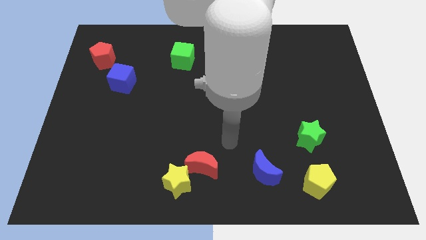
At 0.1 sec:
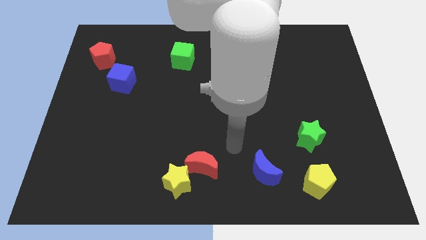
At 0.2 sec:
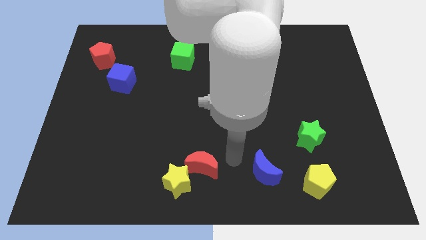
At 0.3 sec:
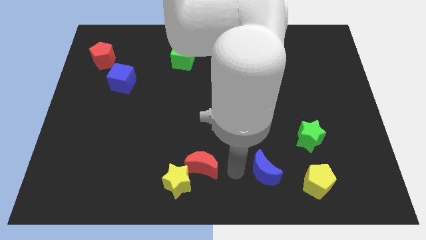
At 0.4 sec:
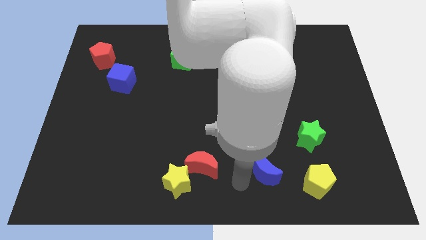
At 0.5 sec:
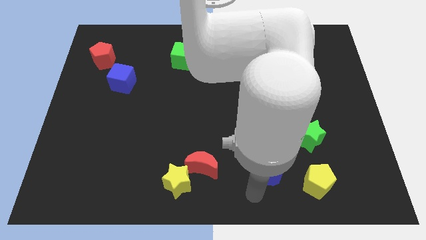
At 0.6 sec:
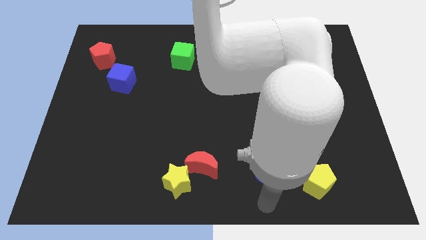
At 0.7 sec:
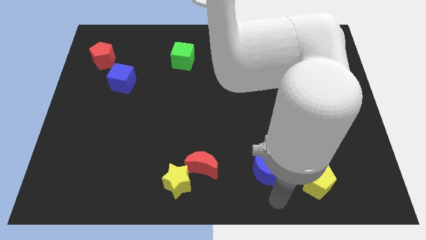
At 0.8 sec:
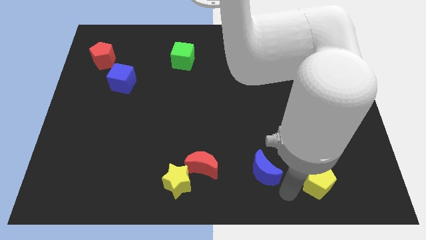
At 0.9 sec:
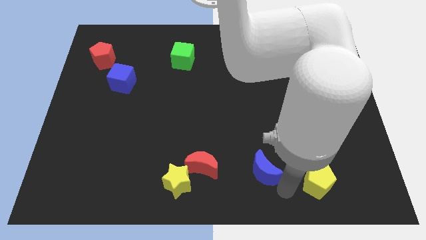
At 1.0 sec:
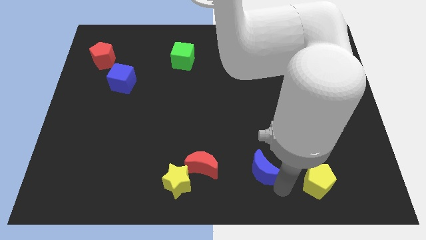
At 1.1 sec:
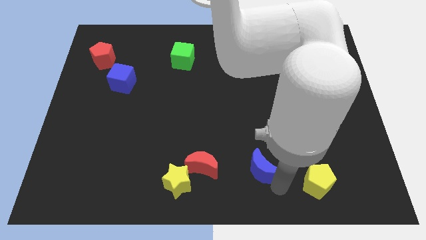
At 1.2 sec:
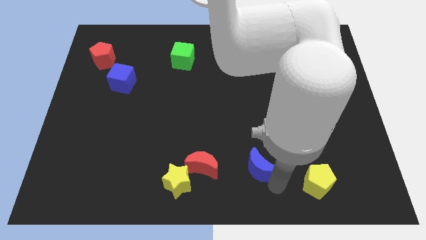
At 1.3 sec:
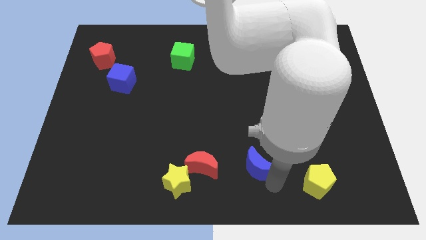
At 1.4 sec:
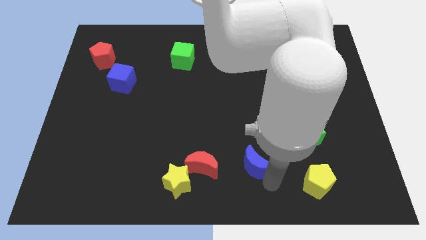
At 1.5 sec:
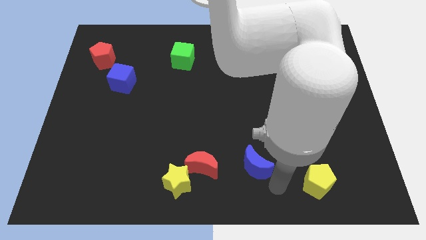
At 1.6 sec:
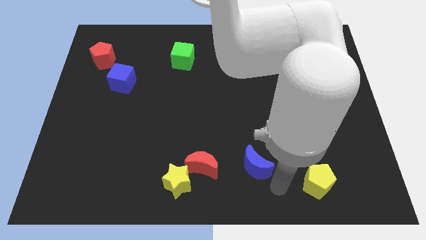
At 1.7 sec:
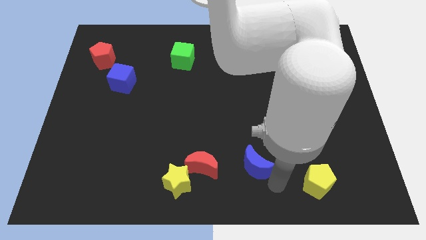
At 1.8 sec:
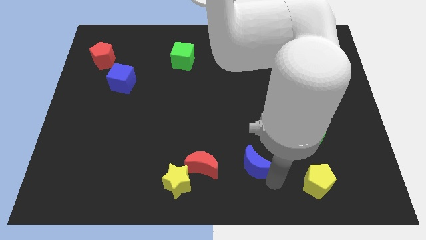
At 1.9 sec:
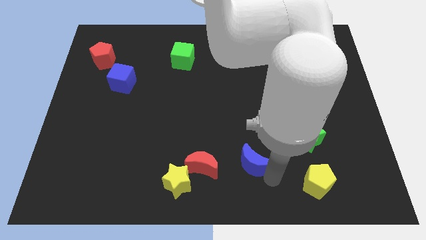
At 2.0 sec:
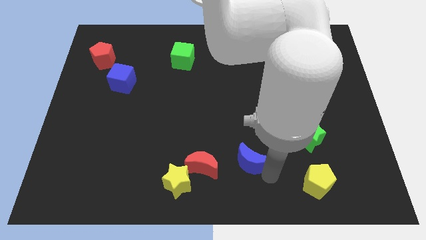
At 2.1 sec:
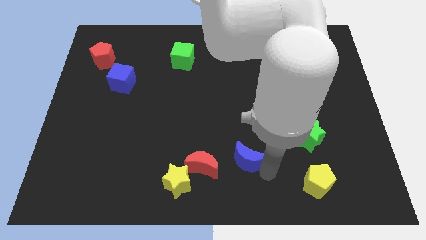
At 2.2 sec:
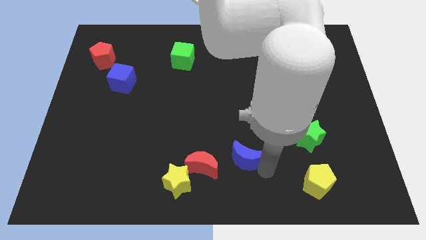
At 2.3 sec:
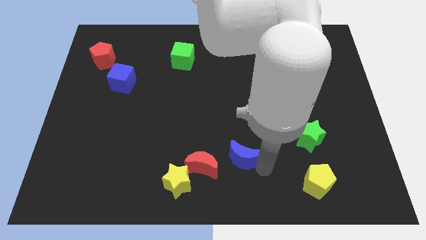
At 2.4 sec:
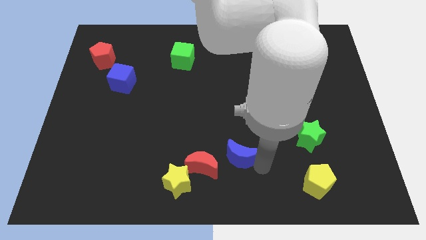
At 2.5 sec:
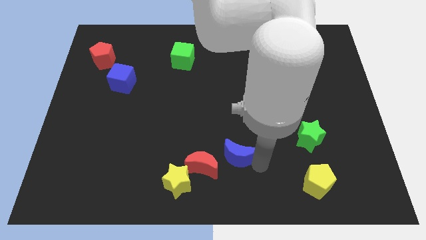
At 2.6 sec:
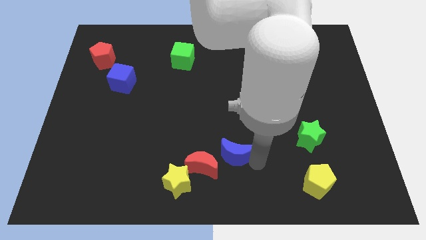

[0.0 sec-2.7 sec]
slide the blue moon a little bit up and then left

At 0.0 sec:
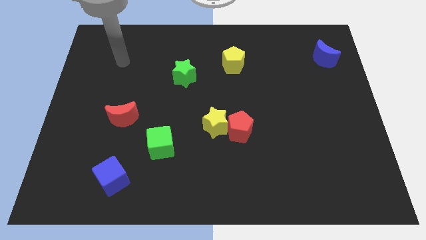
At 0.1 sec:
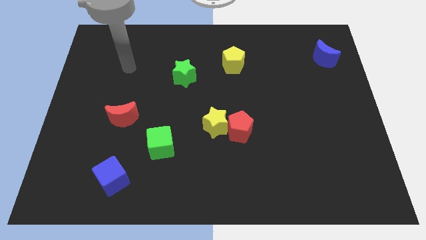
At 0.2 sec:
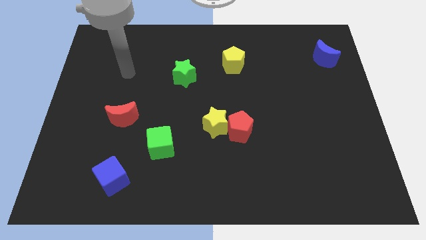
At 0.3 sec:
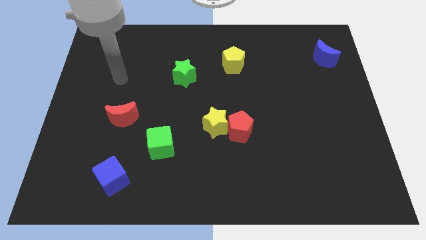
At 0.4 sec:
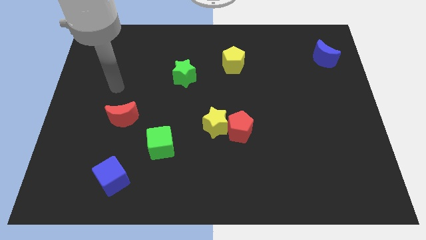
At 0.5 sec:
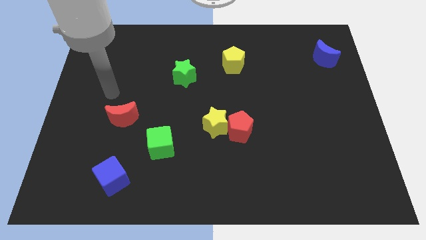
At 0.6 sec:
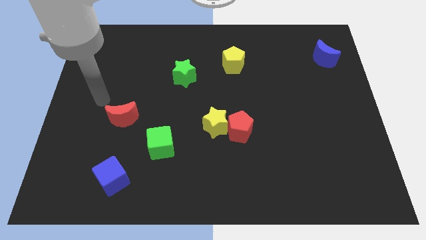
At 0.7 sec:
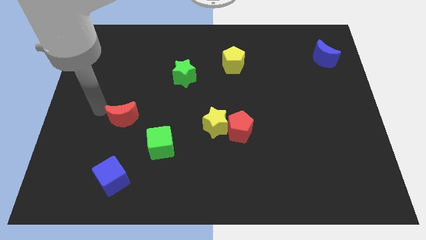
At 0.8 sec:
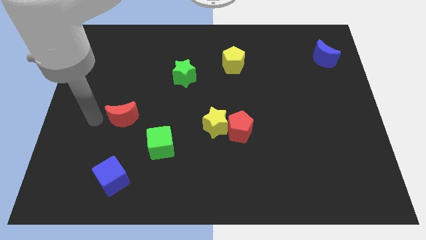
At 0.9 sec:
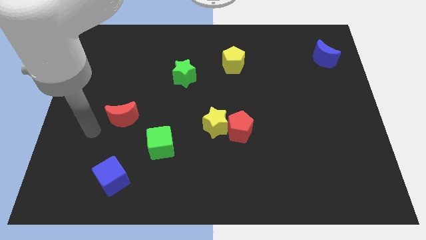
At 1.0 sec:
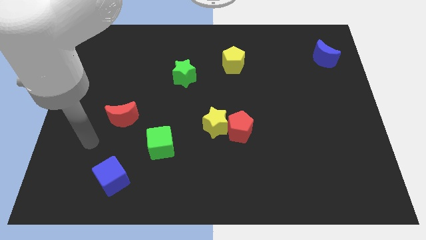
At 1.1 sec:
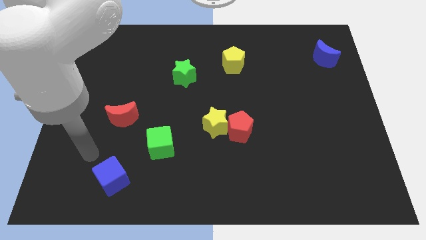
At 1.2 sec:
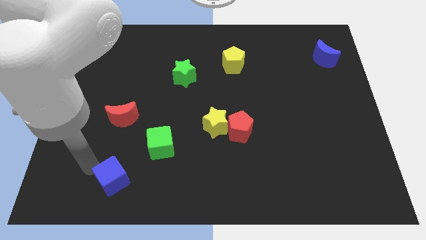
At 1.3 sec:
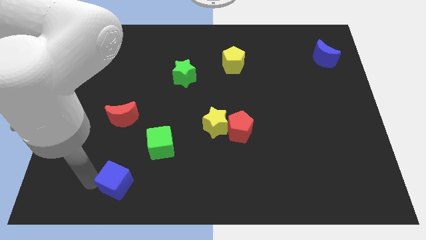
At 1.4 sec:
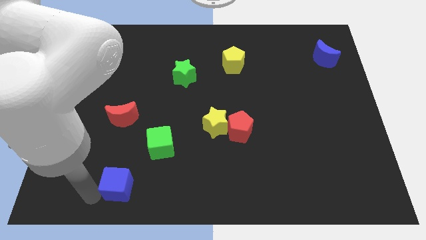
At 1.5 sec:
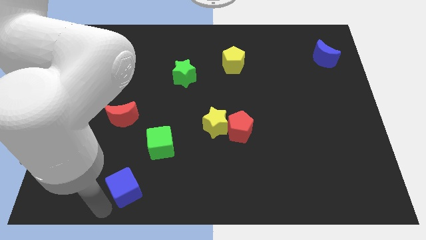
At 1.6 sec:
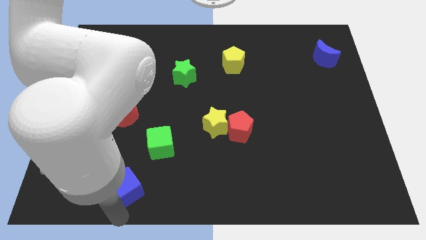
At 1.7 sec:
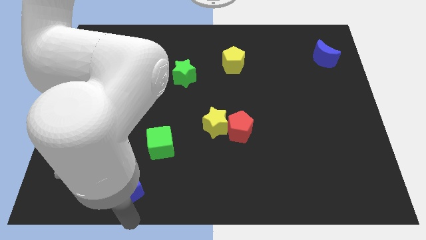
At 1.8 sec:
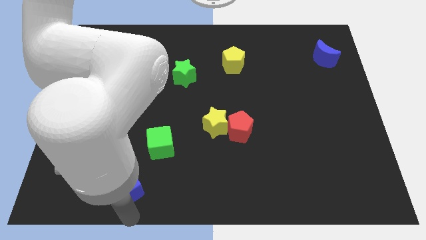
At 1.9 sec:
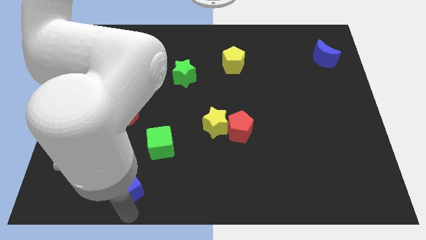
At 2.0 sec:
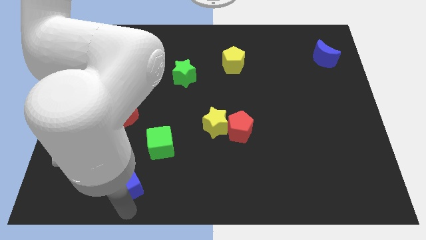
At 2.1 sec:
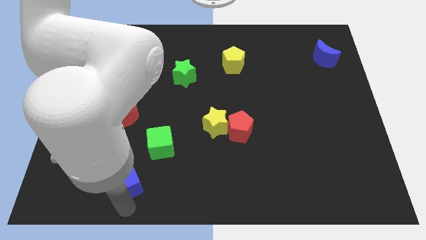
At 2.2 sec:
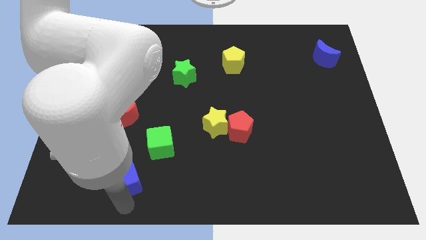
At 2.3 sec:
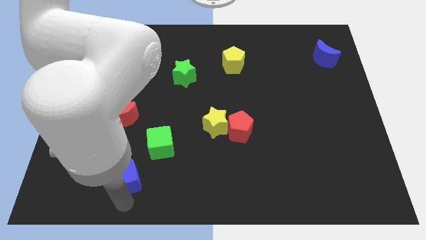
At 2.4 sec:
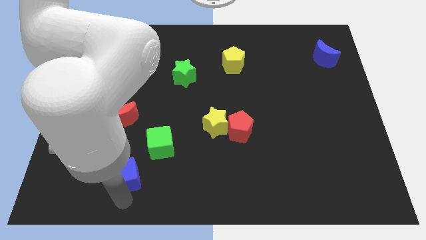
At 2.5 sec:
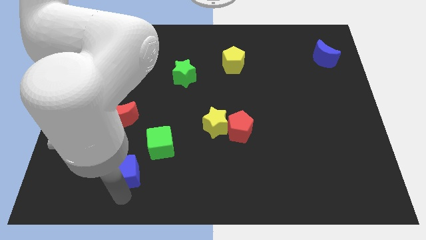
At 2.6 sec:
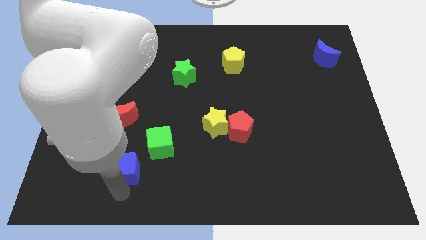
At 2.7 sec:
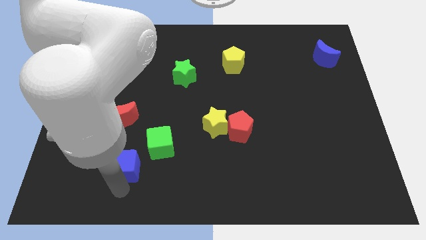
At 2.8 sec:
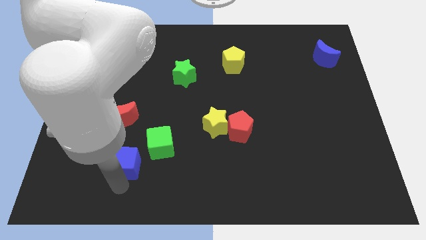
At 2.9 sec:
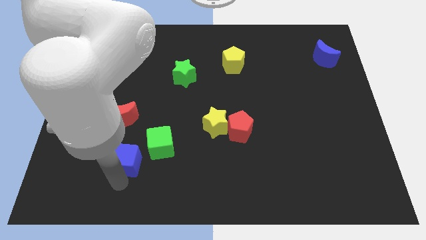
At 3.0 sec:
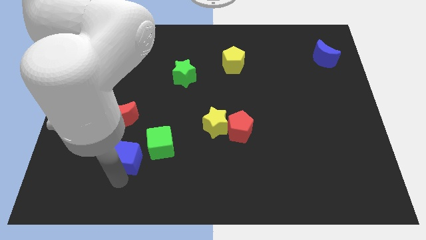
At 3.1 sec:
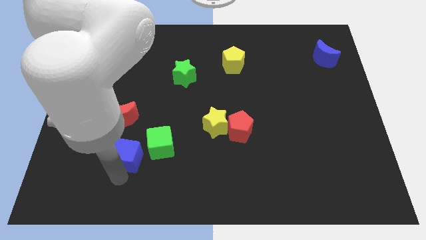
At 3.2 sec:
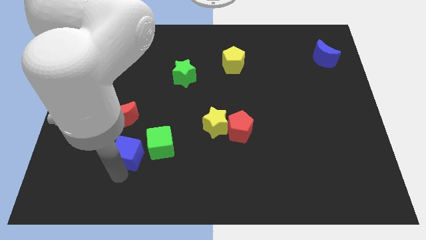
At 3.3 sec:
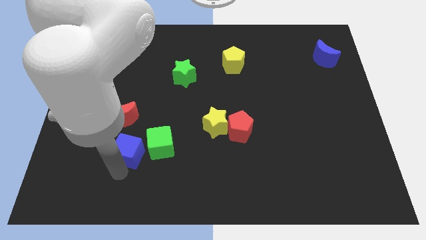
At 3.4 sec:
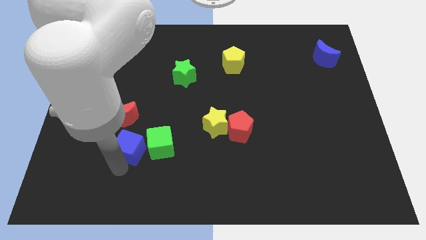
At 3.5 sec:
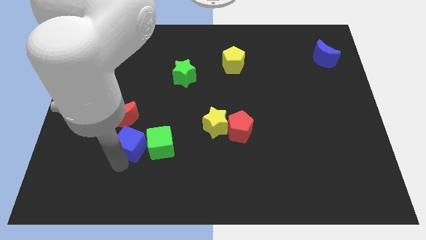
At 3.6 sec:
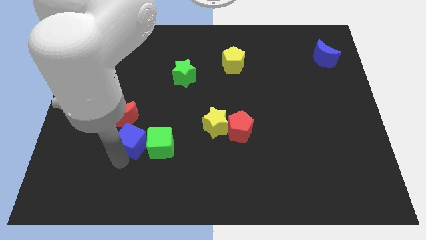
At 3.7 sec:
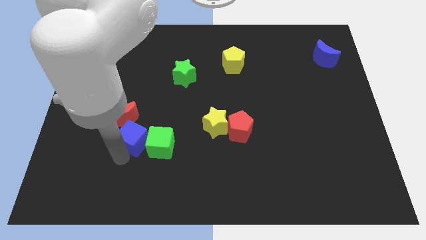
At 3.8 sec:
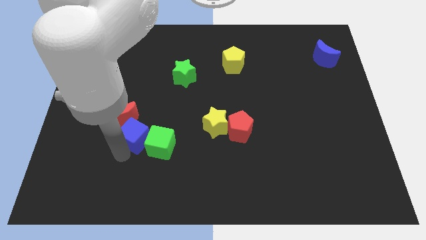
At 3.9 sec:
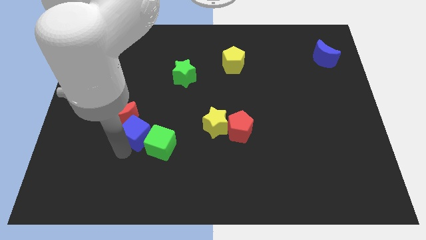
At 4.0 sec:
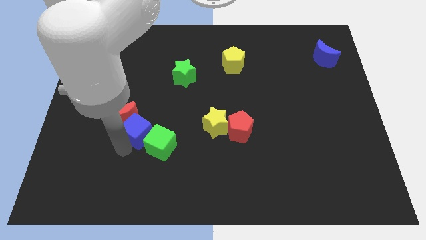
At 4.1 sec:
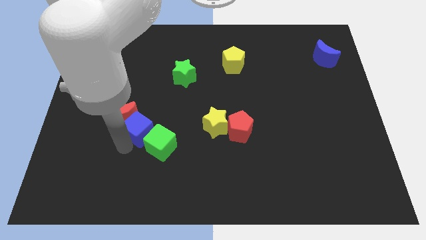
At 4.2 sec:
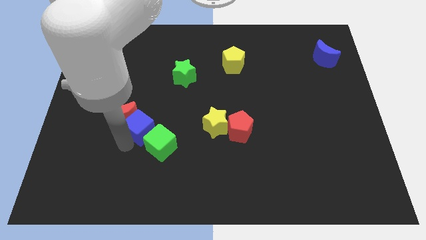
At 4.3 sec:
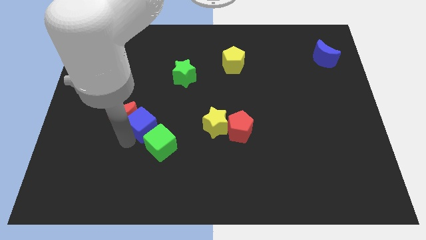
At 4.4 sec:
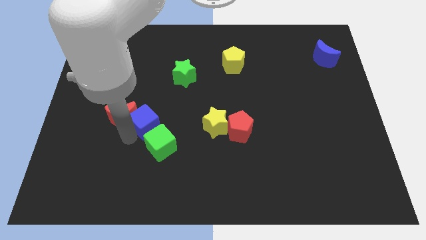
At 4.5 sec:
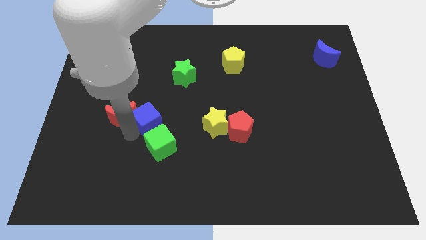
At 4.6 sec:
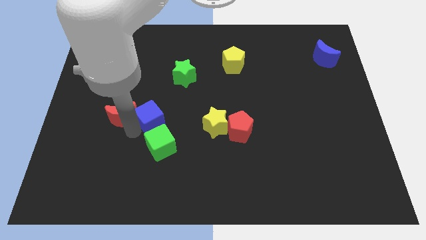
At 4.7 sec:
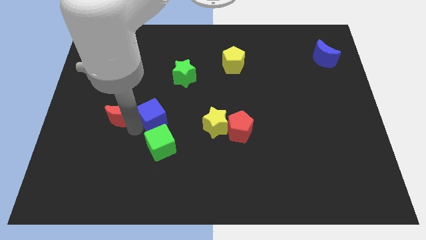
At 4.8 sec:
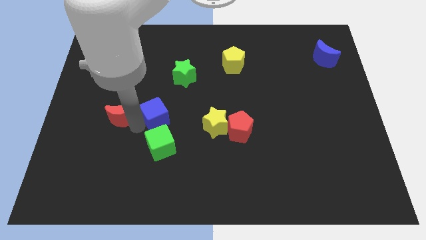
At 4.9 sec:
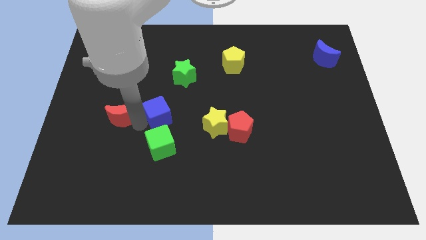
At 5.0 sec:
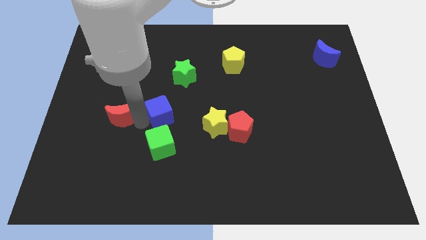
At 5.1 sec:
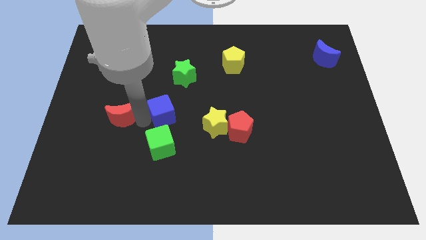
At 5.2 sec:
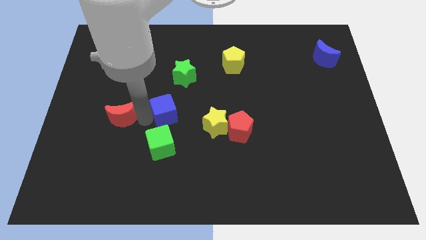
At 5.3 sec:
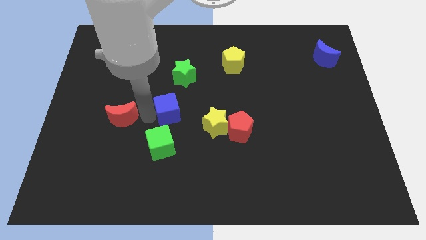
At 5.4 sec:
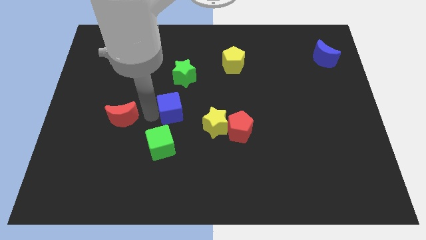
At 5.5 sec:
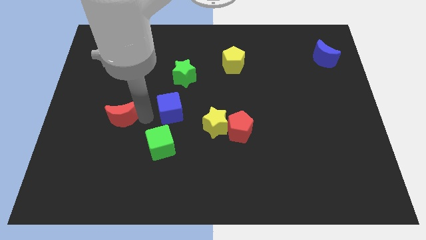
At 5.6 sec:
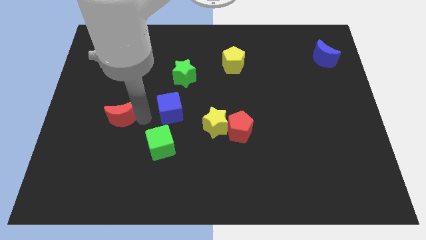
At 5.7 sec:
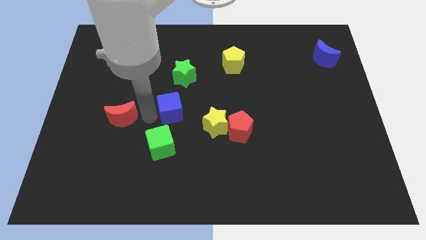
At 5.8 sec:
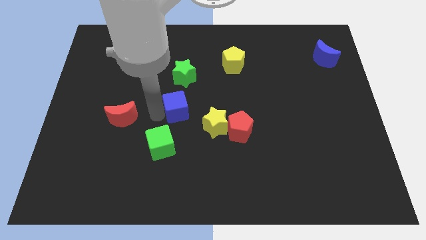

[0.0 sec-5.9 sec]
slide the blue cube up and then right
